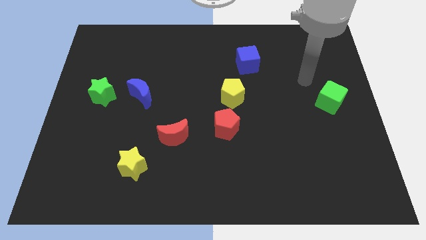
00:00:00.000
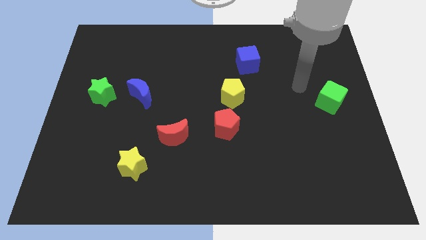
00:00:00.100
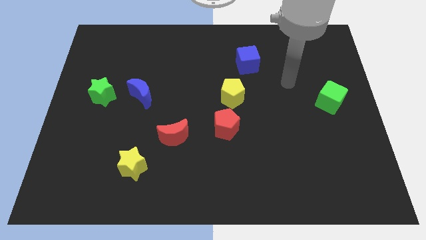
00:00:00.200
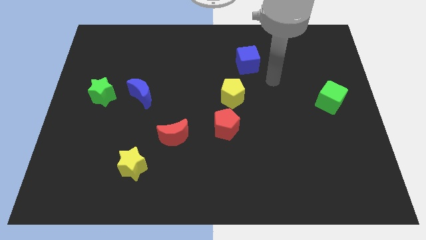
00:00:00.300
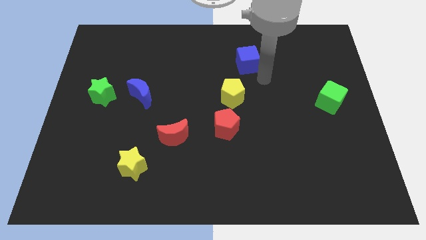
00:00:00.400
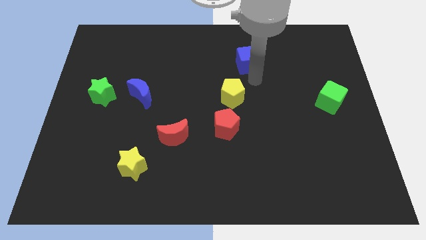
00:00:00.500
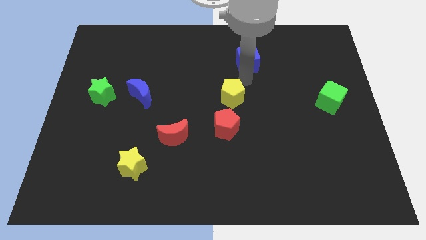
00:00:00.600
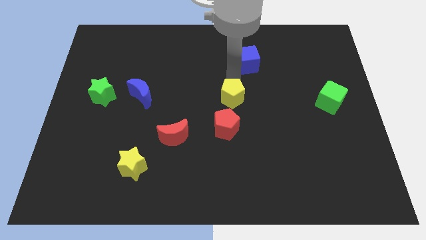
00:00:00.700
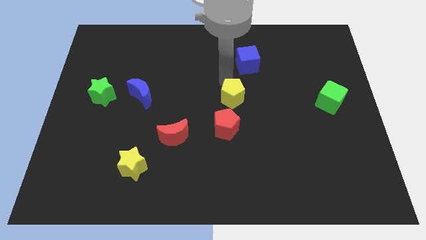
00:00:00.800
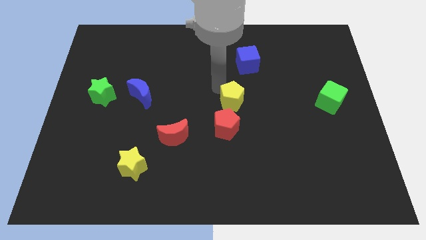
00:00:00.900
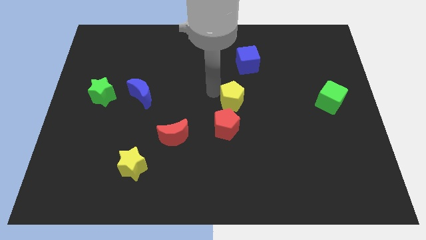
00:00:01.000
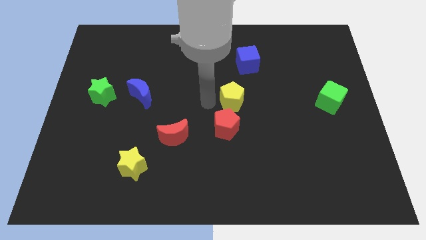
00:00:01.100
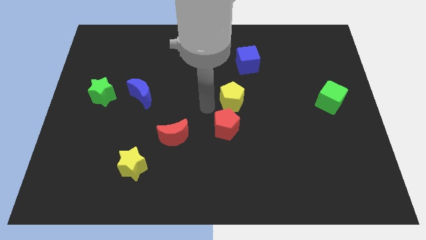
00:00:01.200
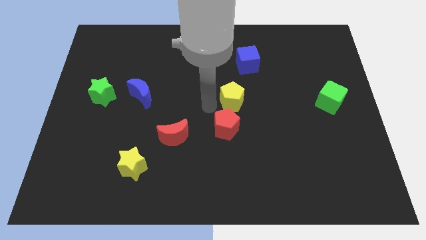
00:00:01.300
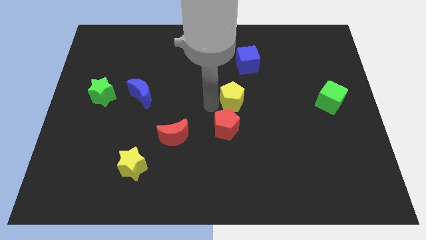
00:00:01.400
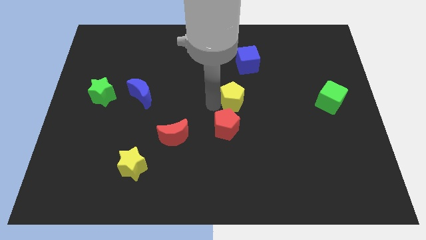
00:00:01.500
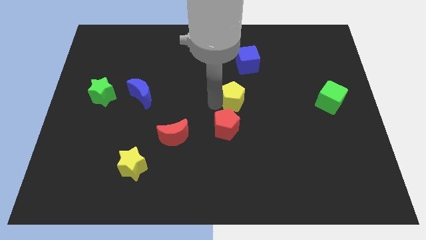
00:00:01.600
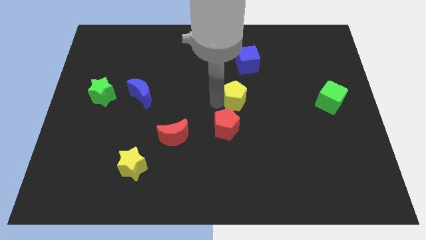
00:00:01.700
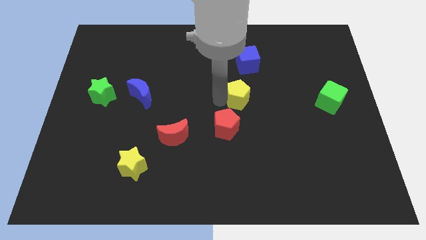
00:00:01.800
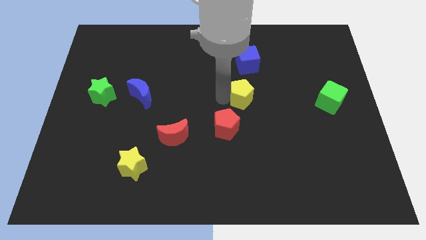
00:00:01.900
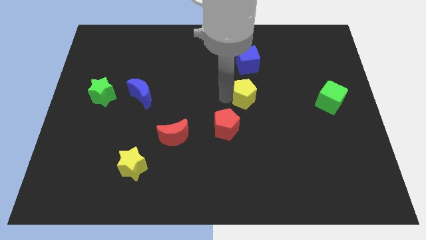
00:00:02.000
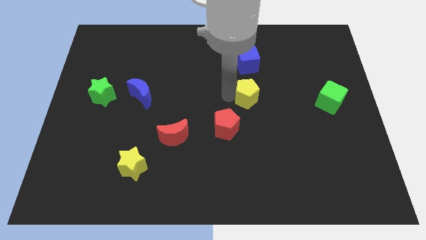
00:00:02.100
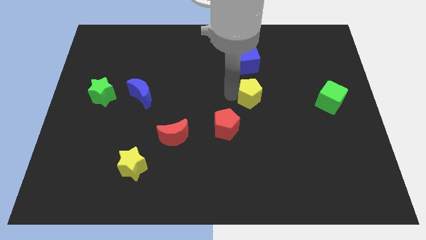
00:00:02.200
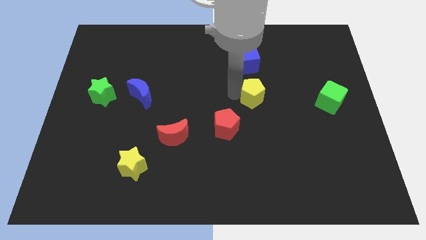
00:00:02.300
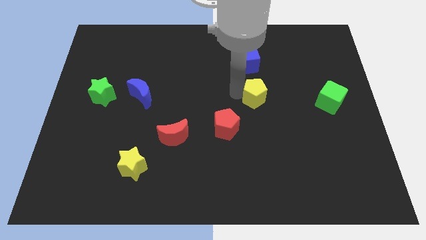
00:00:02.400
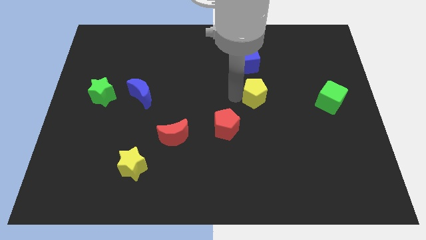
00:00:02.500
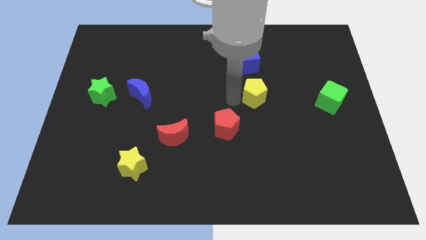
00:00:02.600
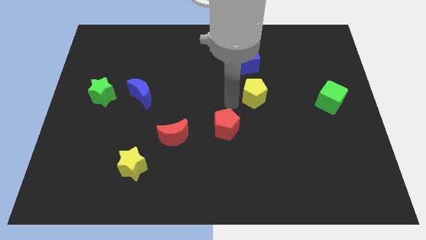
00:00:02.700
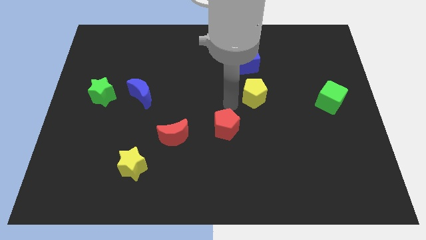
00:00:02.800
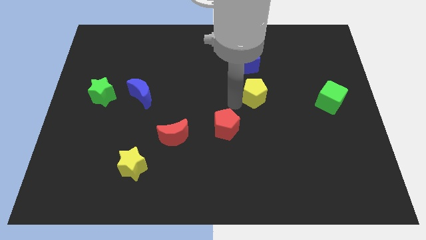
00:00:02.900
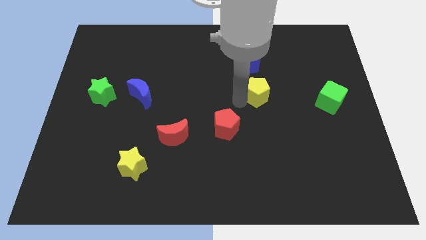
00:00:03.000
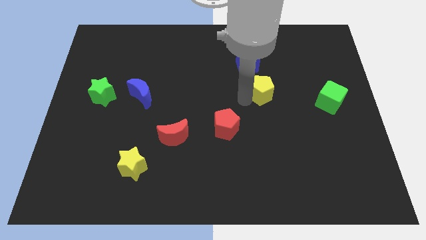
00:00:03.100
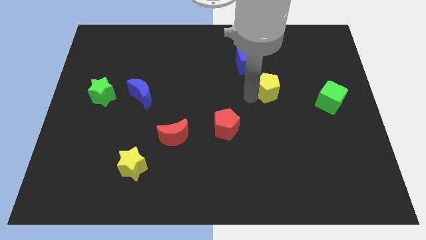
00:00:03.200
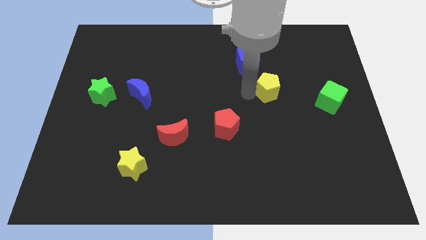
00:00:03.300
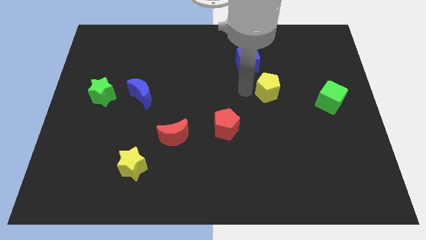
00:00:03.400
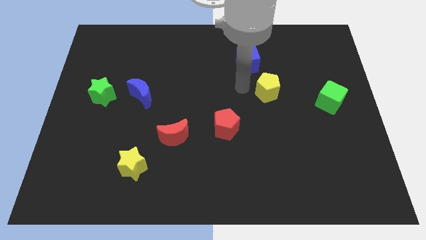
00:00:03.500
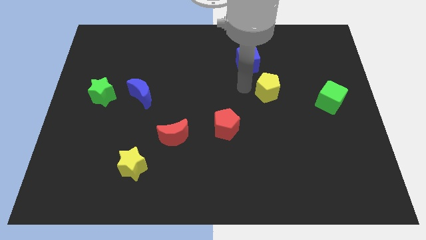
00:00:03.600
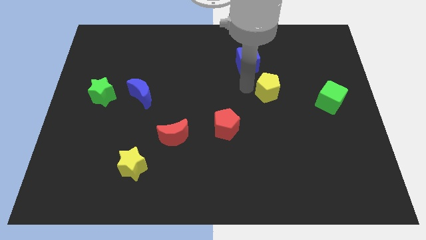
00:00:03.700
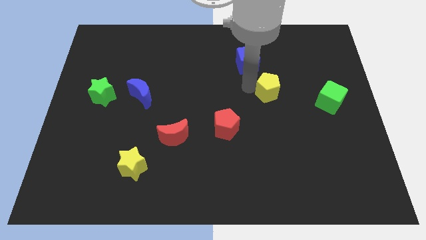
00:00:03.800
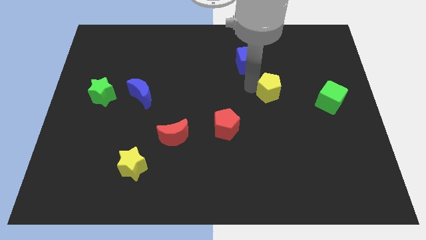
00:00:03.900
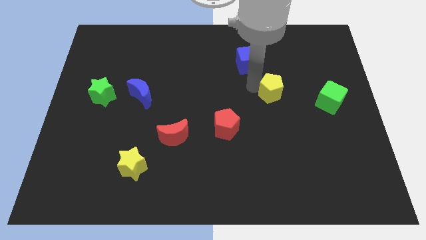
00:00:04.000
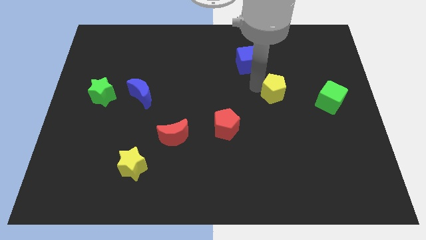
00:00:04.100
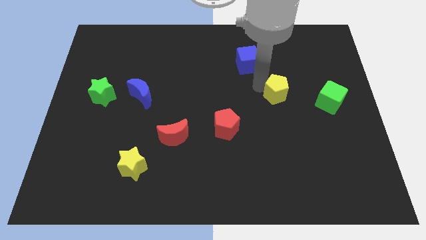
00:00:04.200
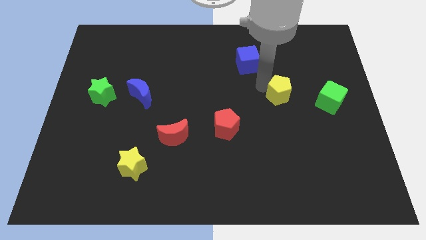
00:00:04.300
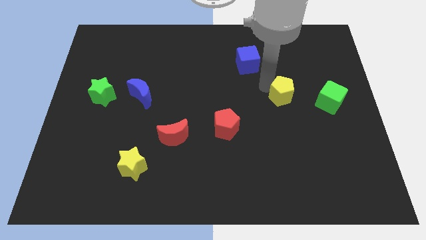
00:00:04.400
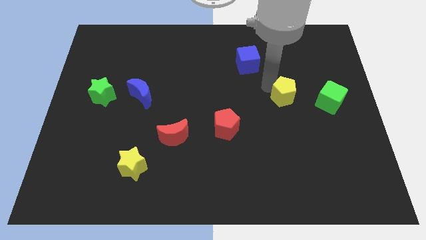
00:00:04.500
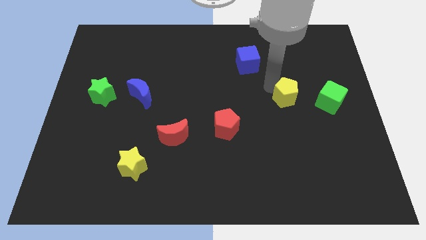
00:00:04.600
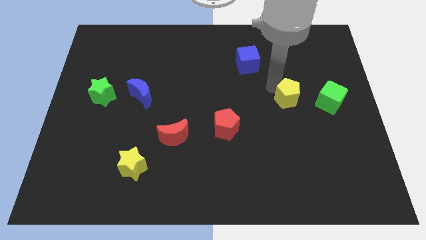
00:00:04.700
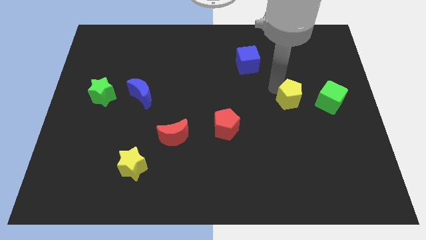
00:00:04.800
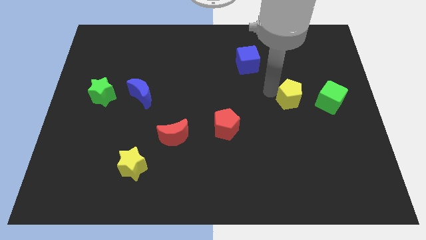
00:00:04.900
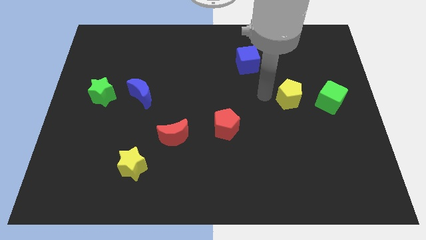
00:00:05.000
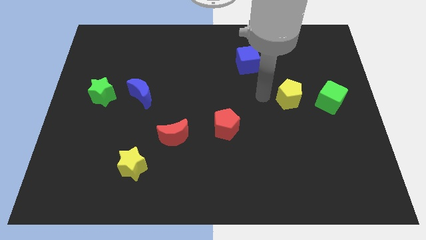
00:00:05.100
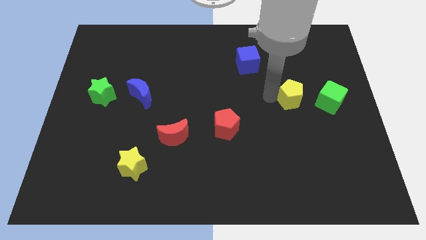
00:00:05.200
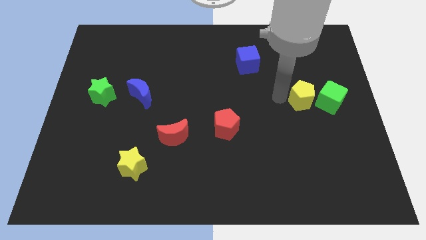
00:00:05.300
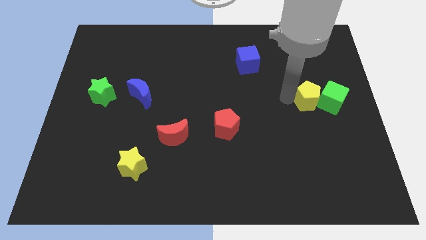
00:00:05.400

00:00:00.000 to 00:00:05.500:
push the yellow pentagon towards the green cube

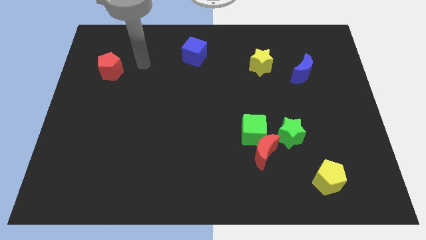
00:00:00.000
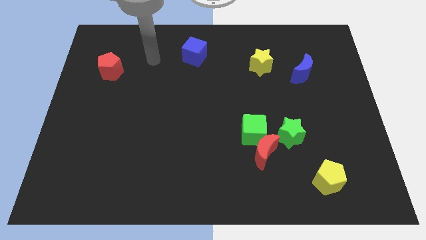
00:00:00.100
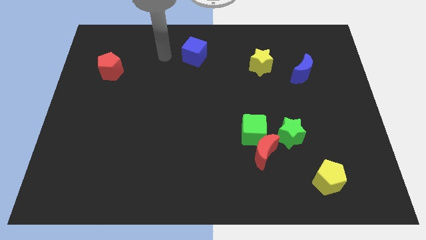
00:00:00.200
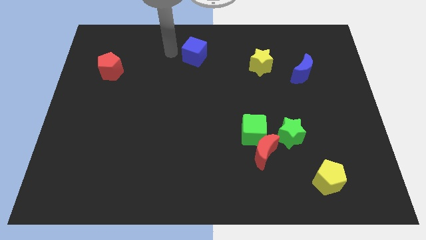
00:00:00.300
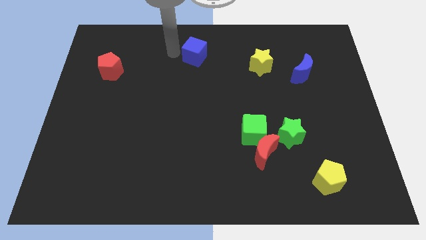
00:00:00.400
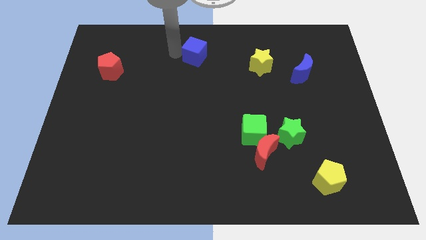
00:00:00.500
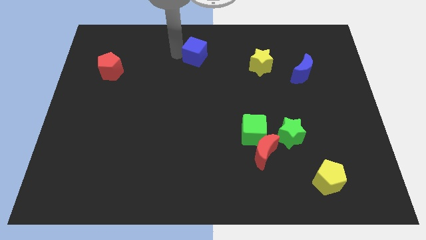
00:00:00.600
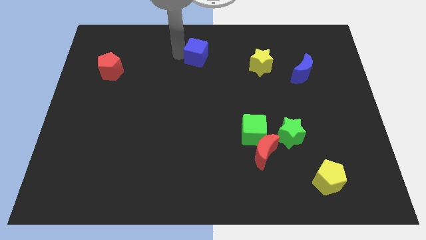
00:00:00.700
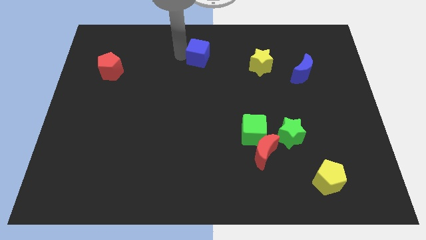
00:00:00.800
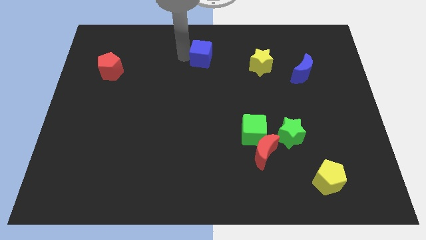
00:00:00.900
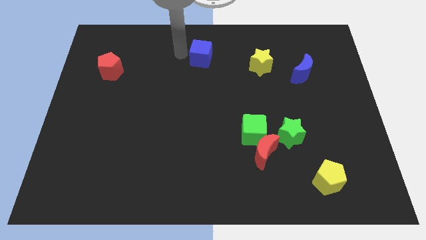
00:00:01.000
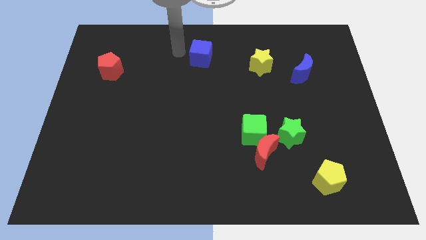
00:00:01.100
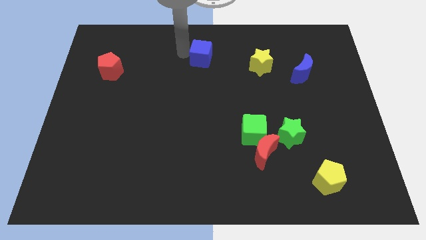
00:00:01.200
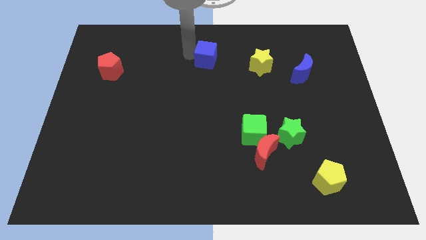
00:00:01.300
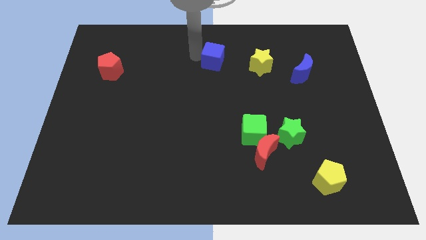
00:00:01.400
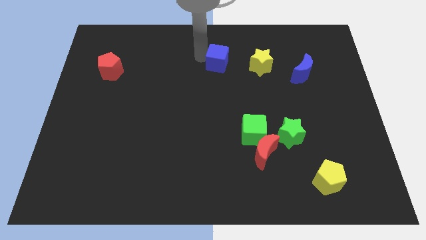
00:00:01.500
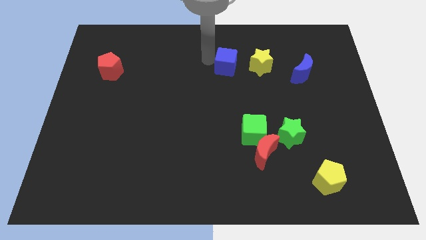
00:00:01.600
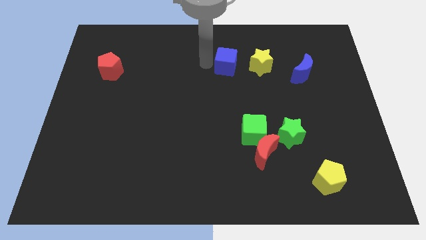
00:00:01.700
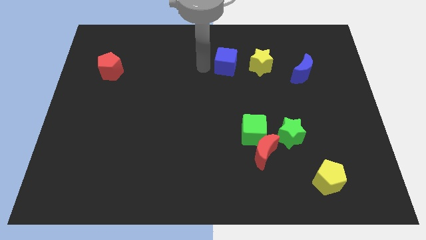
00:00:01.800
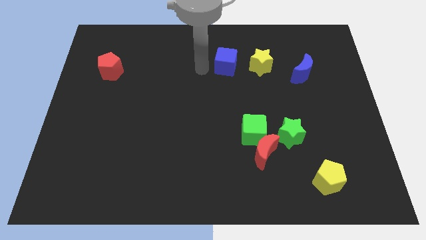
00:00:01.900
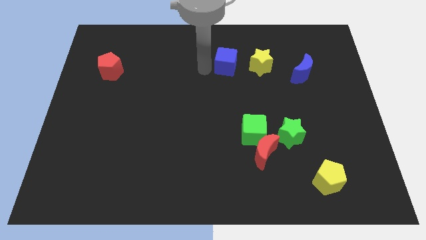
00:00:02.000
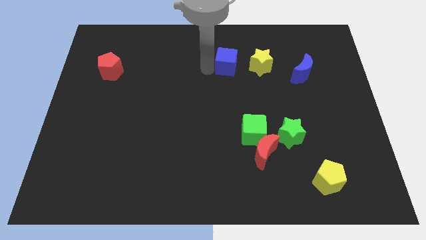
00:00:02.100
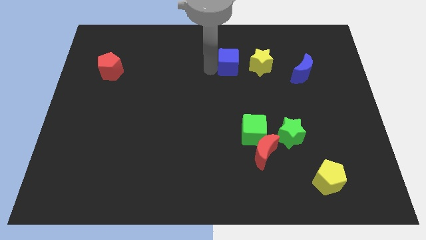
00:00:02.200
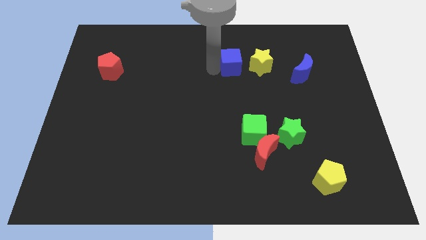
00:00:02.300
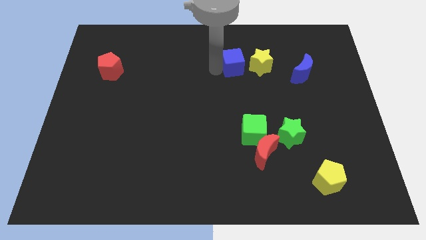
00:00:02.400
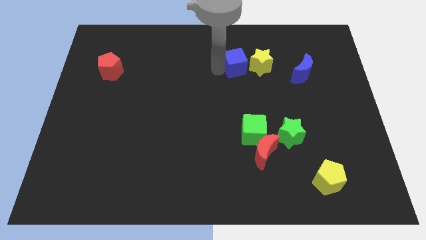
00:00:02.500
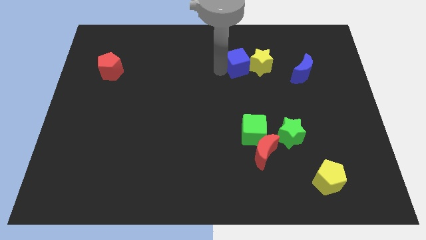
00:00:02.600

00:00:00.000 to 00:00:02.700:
move the blue cube close to the yellow star
